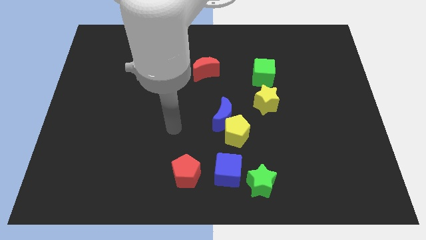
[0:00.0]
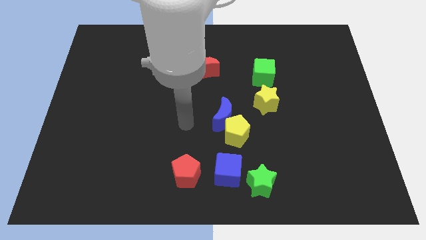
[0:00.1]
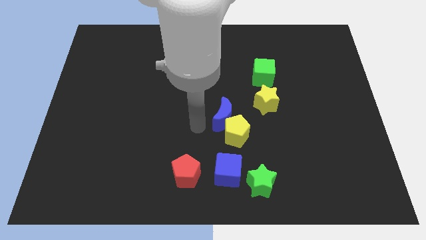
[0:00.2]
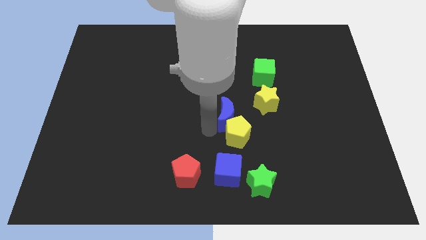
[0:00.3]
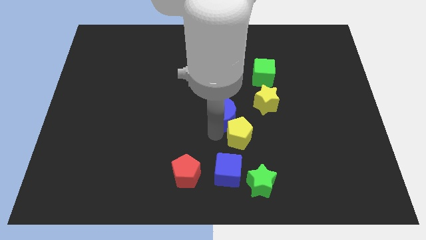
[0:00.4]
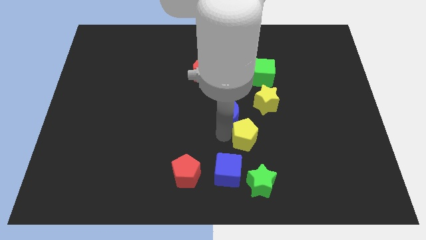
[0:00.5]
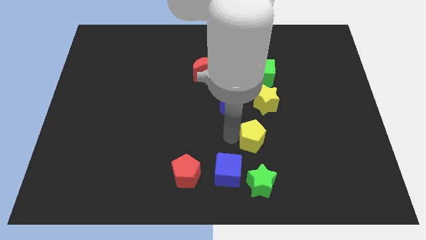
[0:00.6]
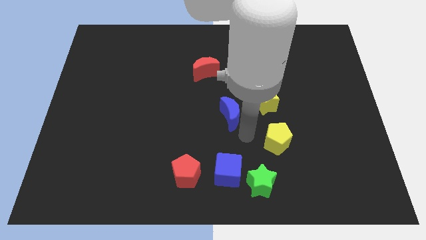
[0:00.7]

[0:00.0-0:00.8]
pull the blue moon apart from the yellow pentagon

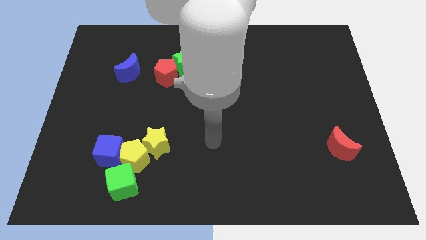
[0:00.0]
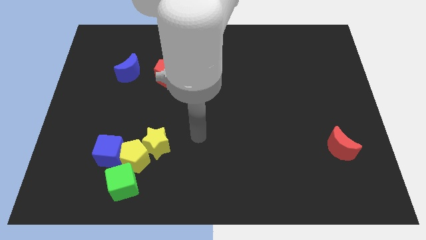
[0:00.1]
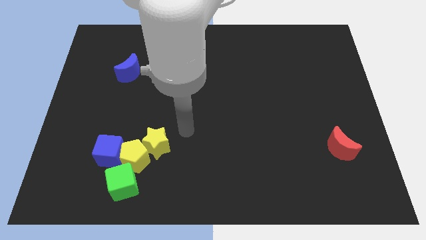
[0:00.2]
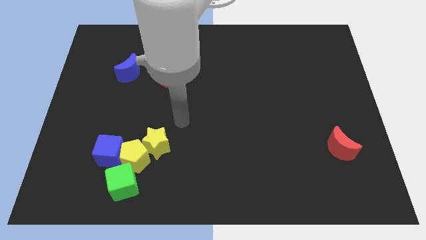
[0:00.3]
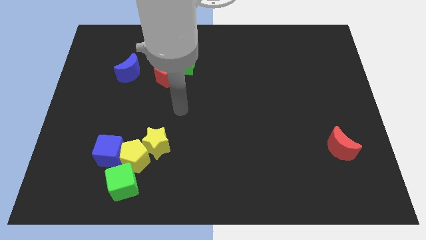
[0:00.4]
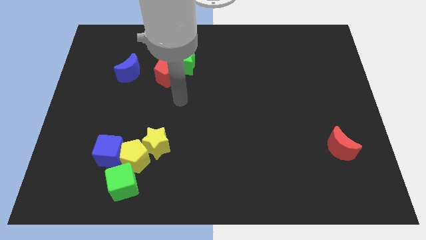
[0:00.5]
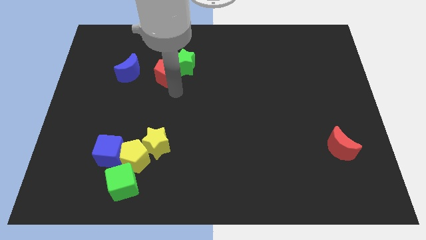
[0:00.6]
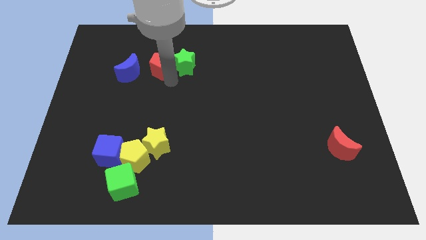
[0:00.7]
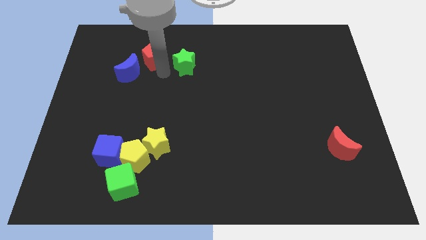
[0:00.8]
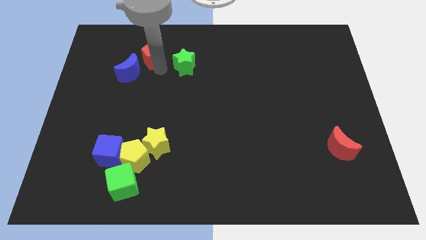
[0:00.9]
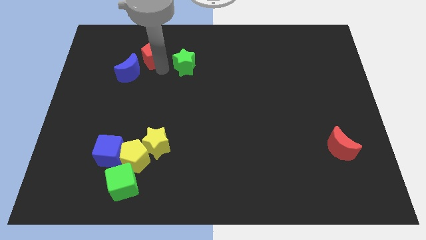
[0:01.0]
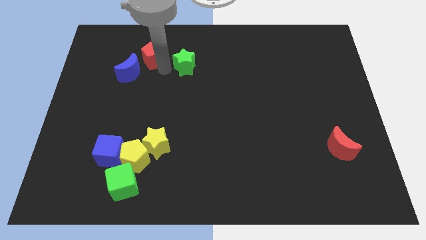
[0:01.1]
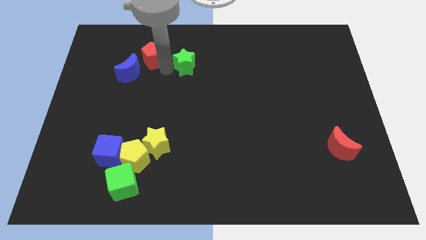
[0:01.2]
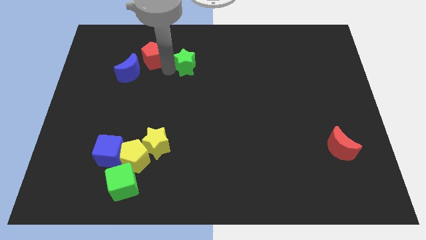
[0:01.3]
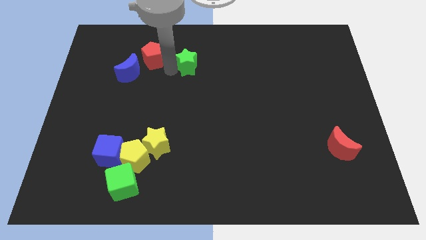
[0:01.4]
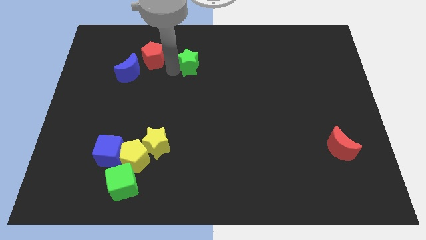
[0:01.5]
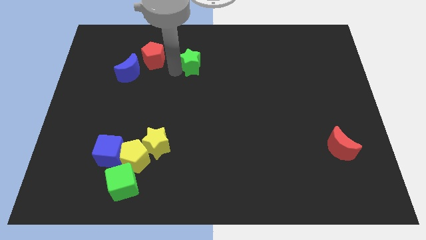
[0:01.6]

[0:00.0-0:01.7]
move the green star away from the red pentagon

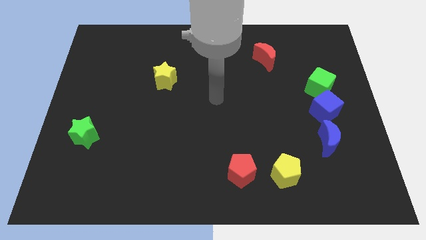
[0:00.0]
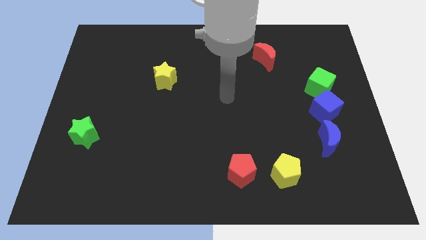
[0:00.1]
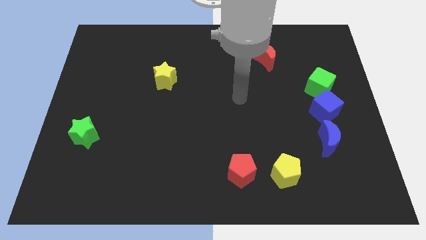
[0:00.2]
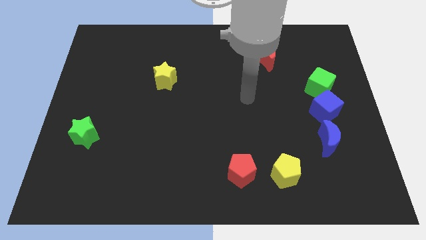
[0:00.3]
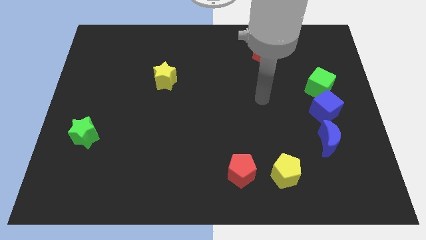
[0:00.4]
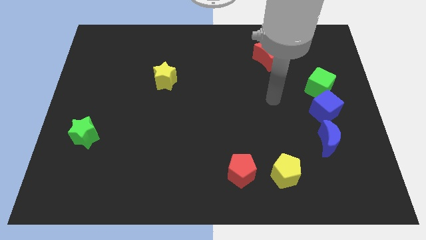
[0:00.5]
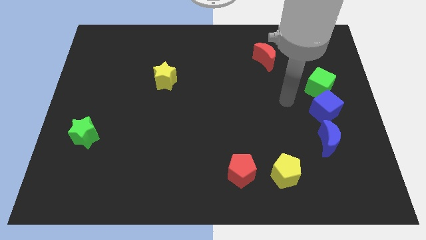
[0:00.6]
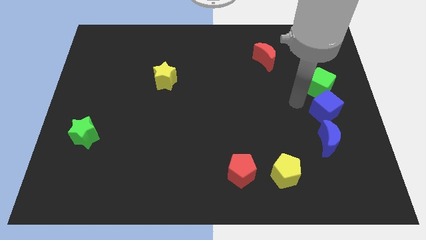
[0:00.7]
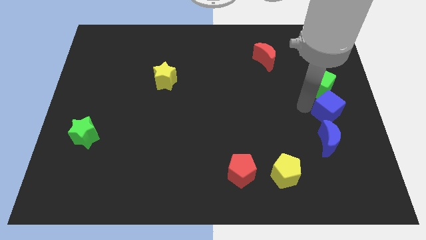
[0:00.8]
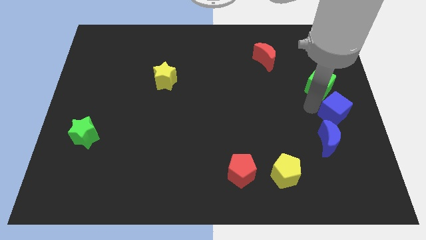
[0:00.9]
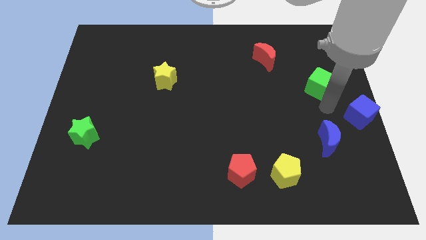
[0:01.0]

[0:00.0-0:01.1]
separate the green cube from the blue cube

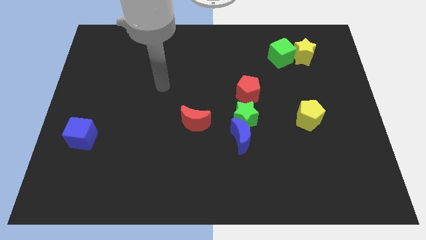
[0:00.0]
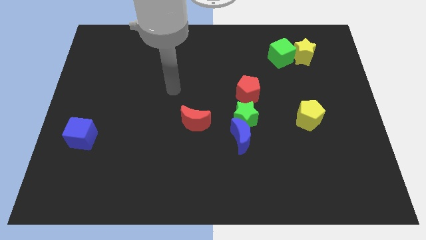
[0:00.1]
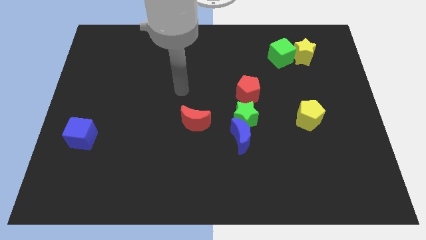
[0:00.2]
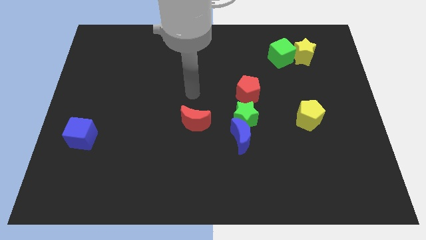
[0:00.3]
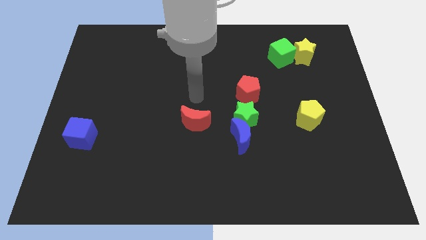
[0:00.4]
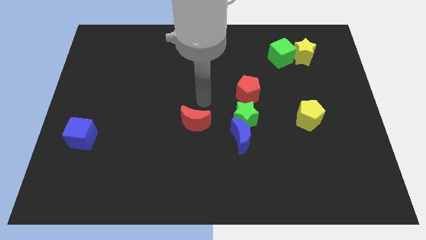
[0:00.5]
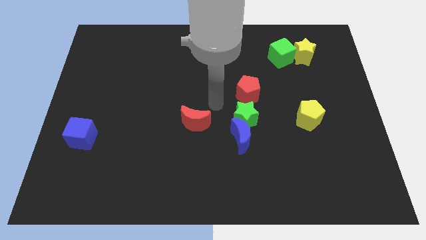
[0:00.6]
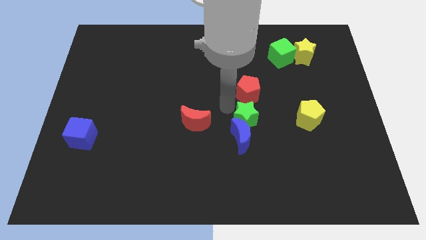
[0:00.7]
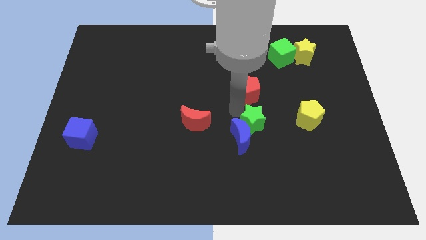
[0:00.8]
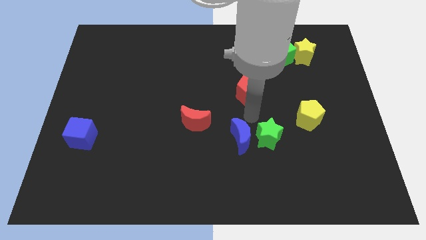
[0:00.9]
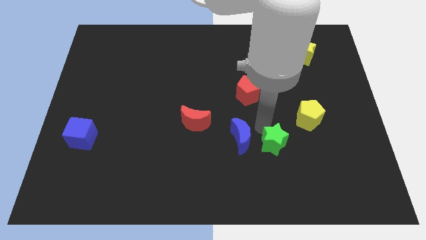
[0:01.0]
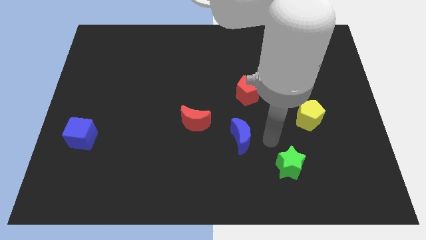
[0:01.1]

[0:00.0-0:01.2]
separate the blue moon from the green star

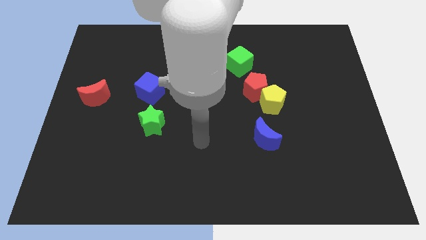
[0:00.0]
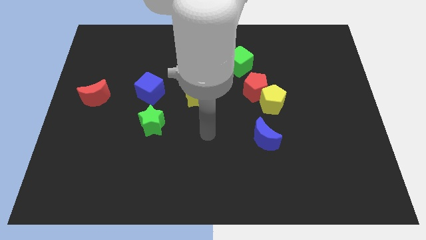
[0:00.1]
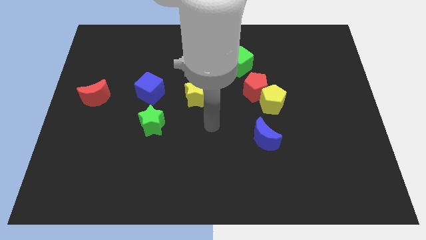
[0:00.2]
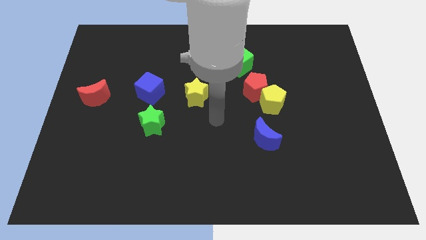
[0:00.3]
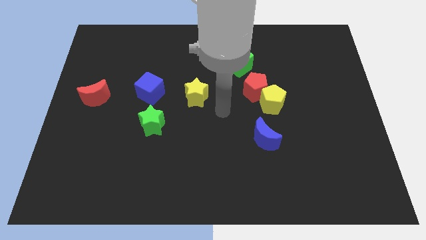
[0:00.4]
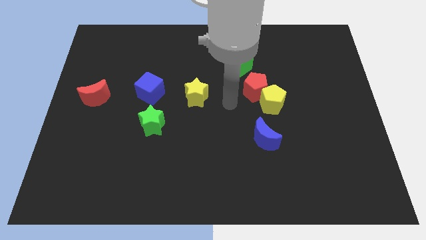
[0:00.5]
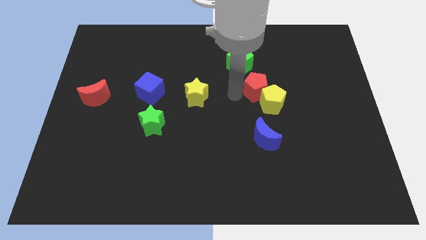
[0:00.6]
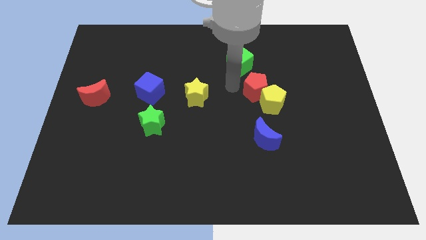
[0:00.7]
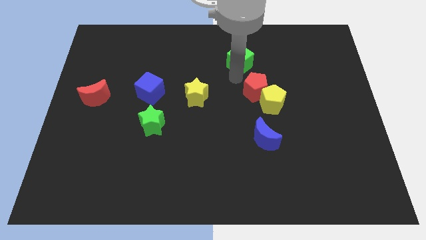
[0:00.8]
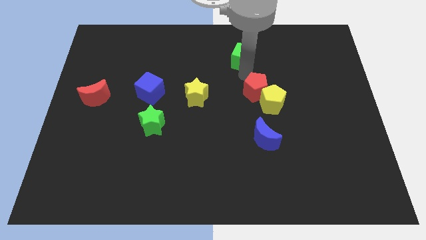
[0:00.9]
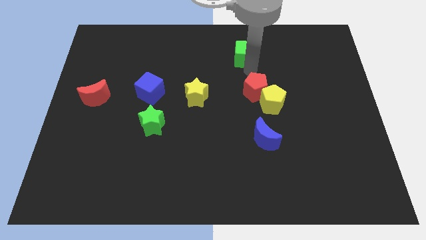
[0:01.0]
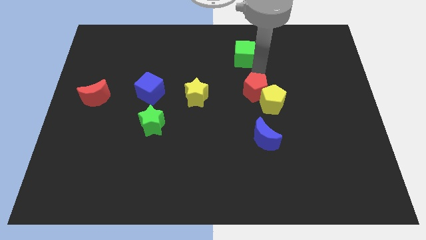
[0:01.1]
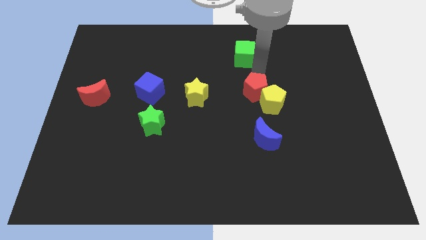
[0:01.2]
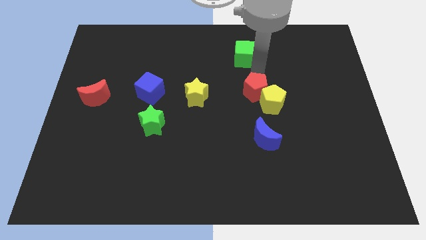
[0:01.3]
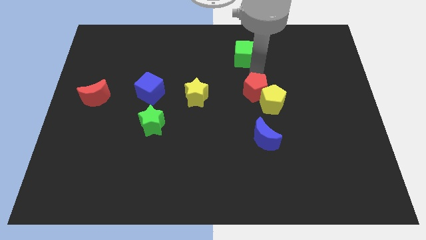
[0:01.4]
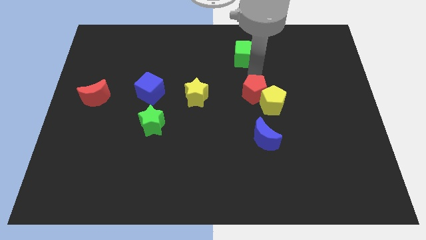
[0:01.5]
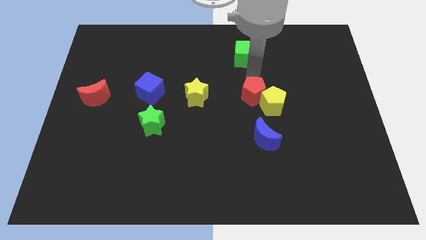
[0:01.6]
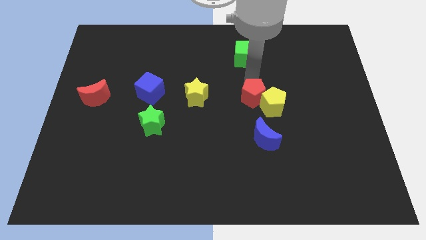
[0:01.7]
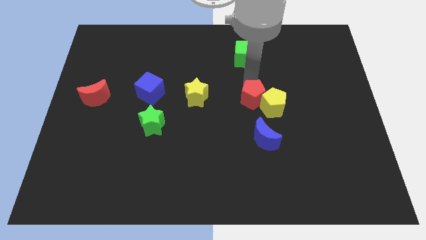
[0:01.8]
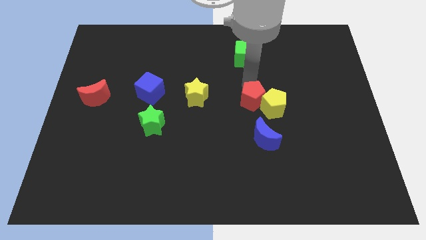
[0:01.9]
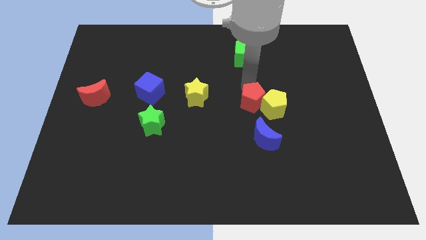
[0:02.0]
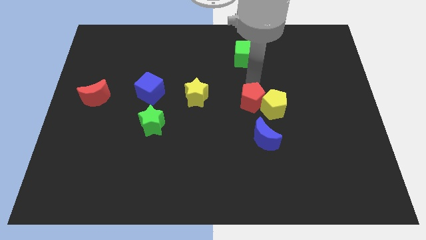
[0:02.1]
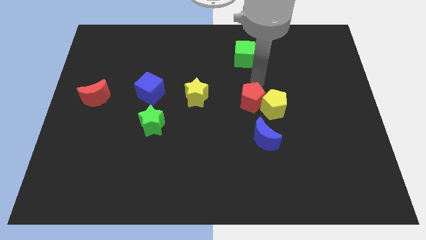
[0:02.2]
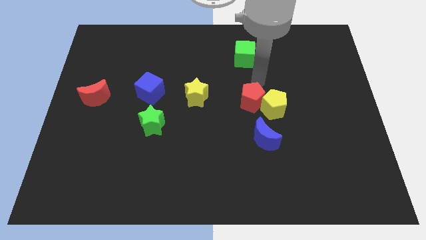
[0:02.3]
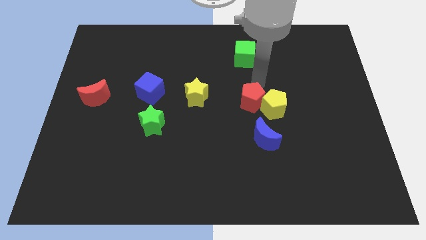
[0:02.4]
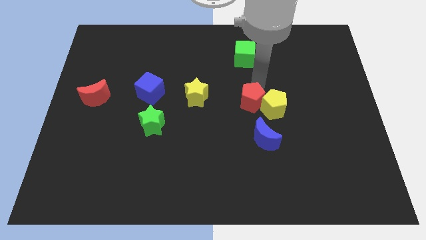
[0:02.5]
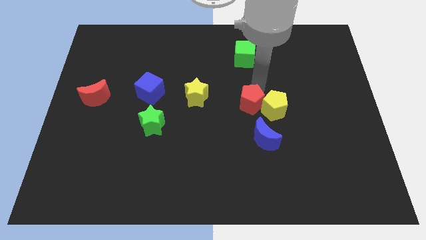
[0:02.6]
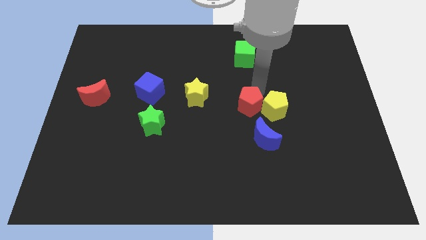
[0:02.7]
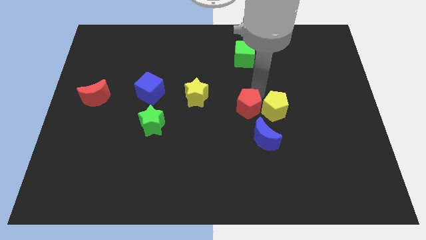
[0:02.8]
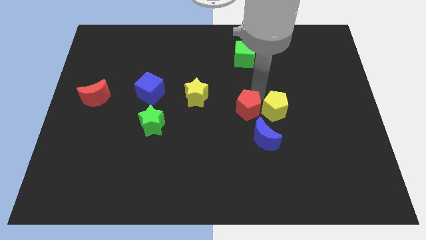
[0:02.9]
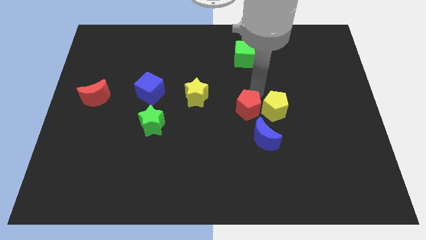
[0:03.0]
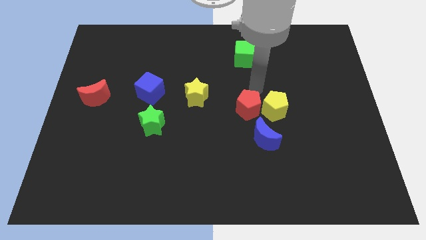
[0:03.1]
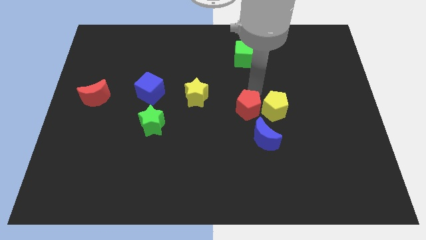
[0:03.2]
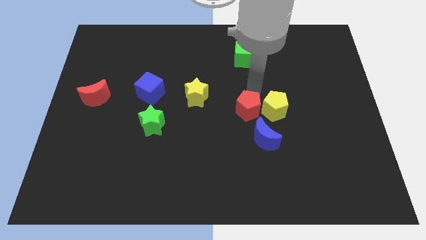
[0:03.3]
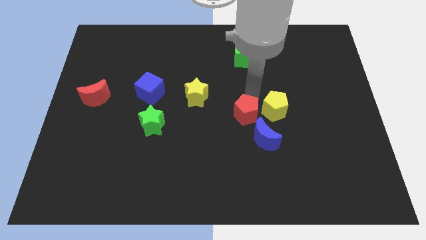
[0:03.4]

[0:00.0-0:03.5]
move the red pentagon away from the yellow pentagon and green cube

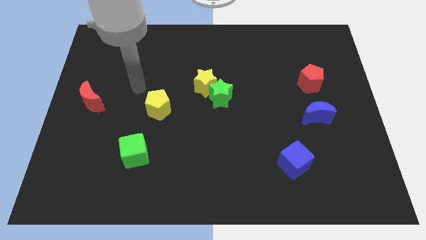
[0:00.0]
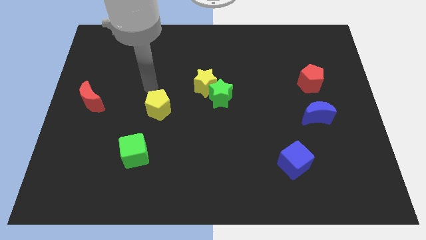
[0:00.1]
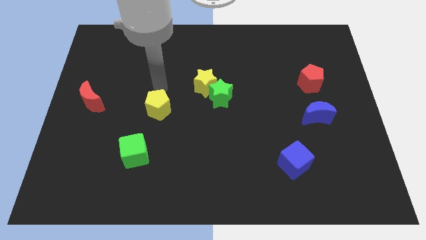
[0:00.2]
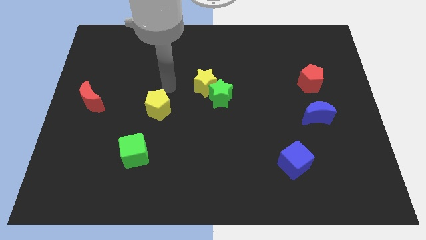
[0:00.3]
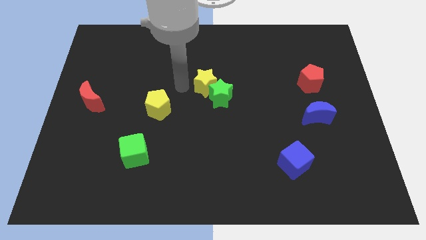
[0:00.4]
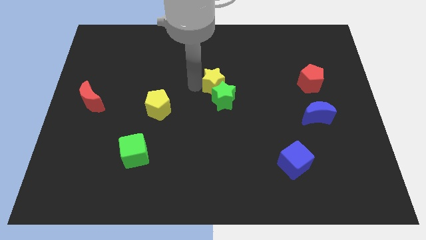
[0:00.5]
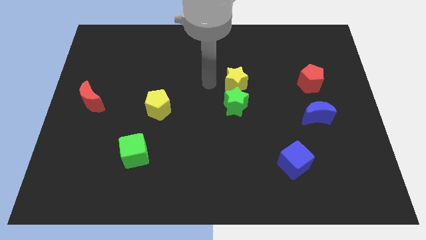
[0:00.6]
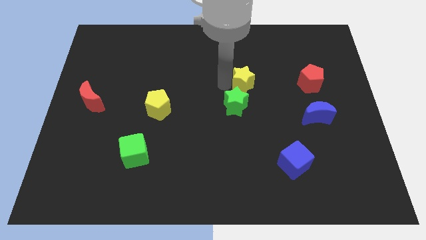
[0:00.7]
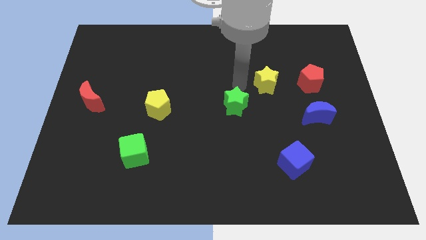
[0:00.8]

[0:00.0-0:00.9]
move the green star away from the yellow star

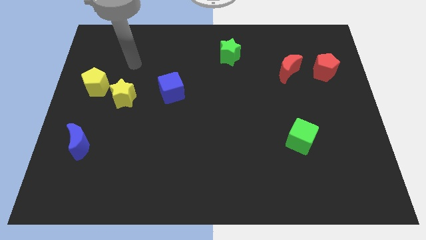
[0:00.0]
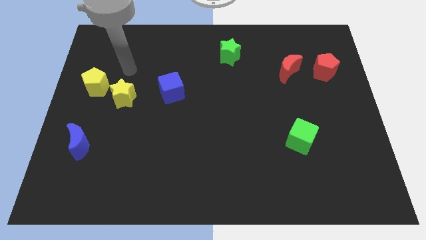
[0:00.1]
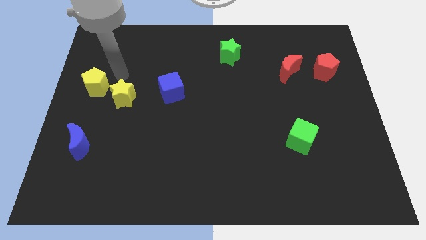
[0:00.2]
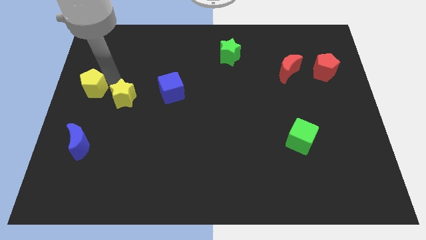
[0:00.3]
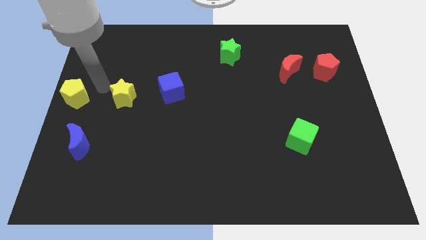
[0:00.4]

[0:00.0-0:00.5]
pull the yellow star apart from the yellow pentagon
